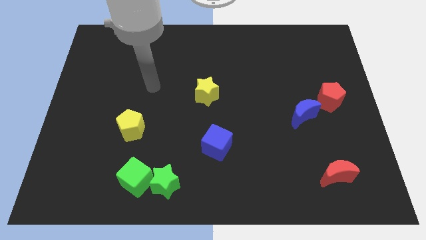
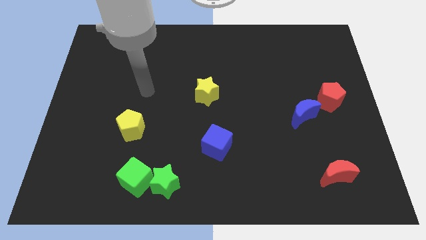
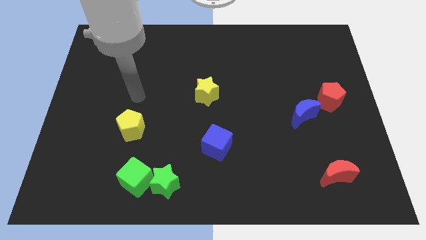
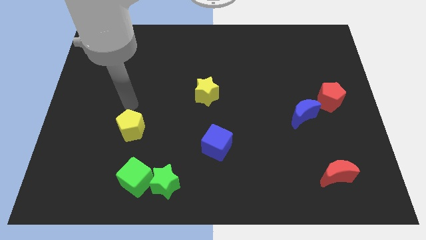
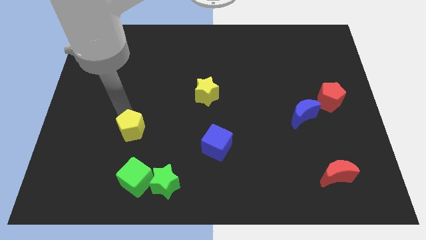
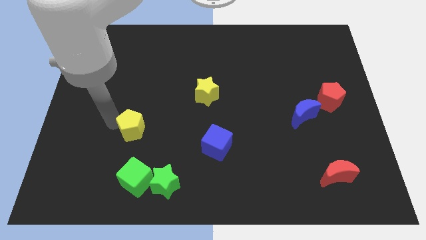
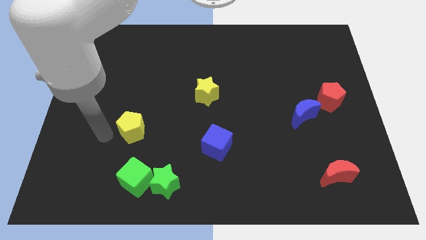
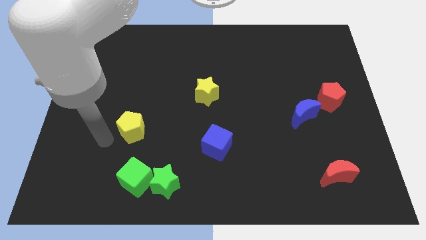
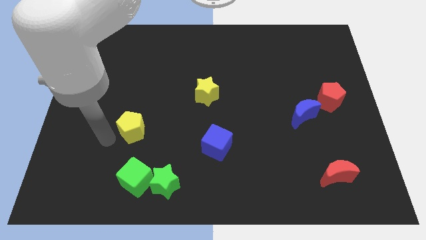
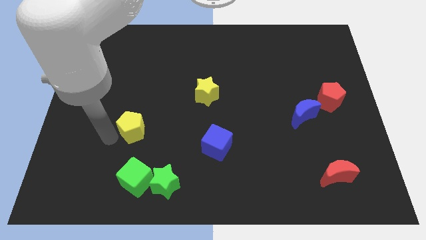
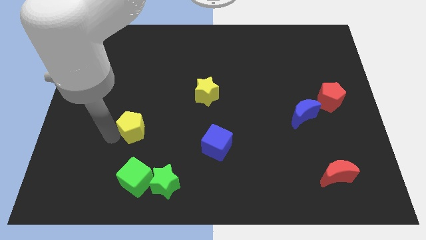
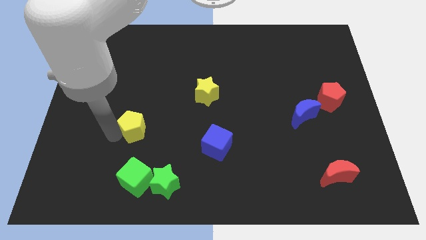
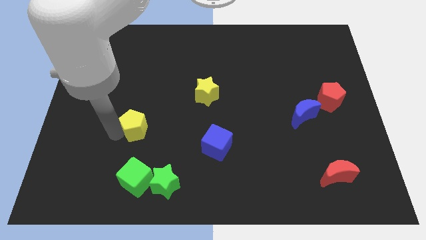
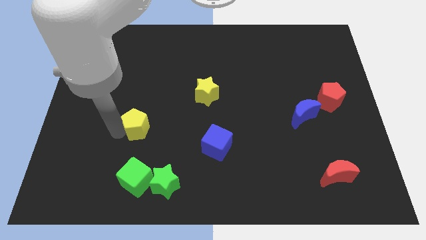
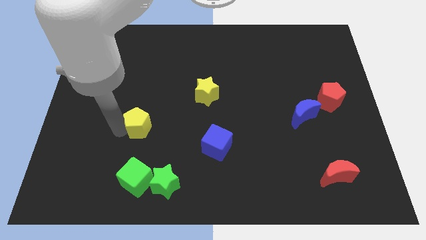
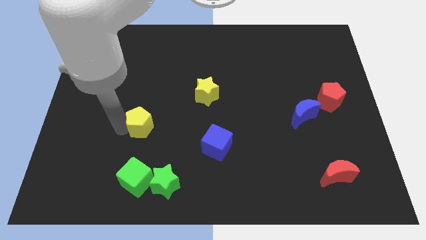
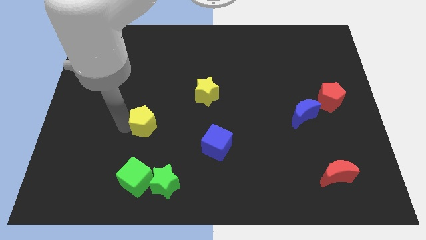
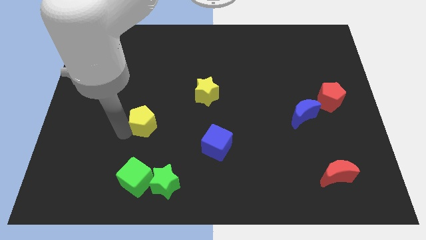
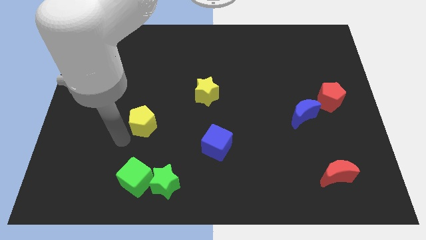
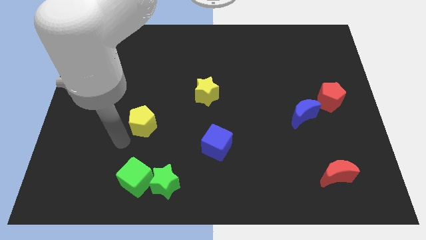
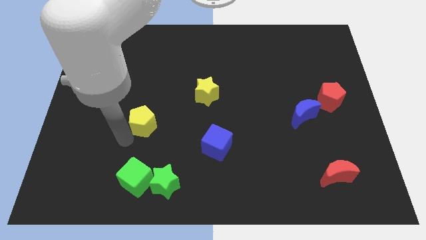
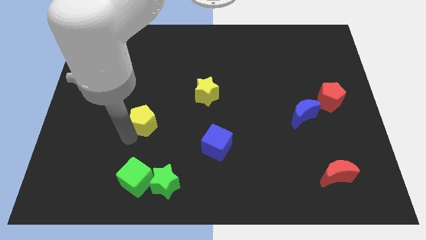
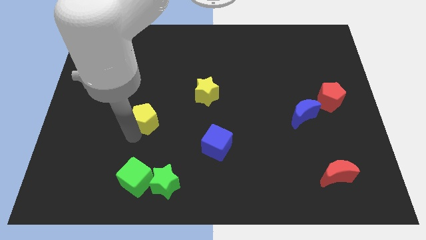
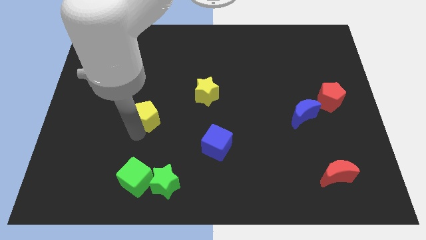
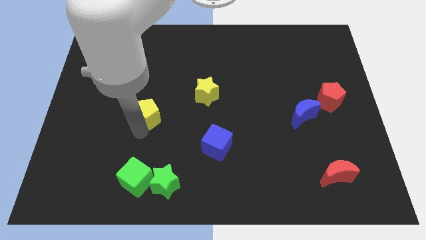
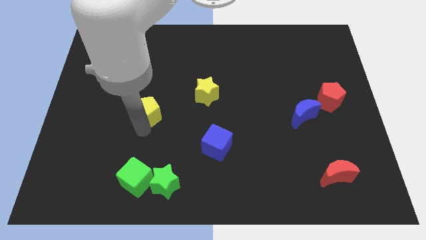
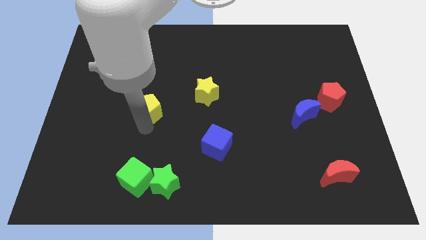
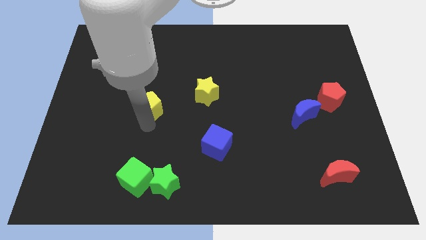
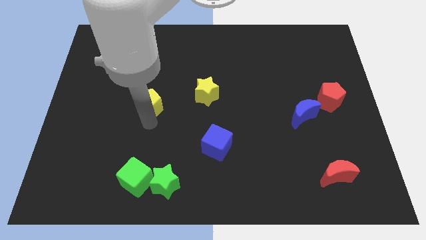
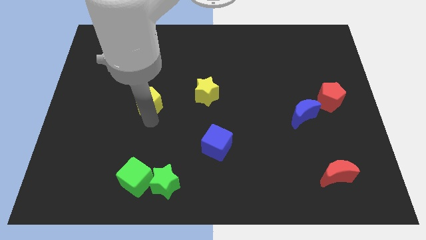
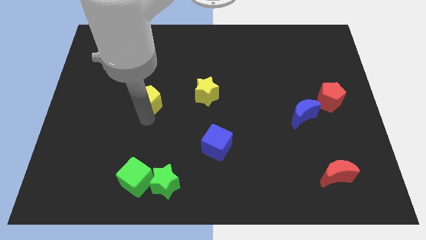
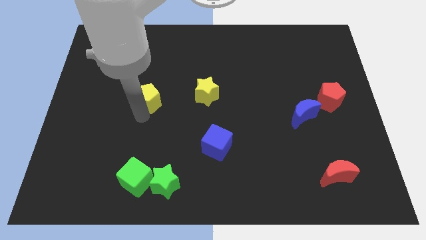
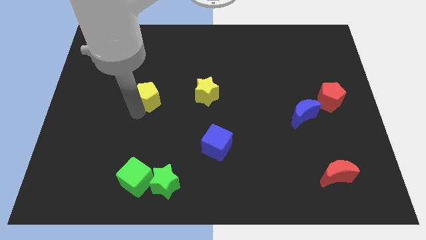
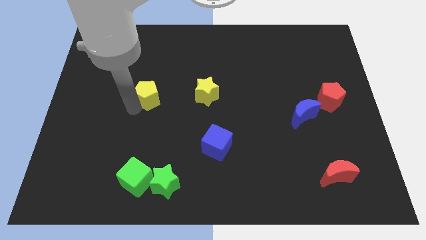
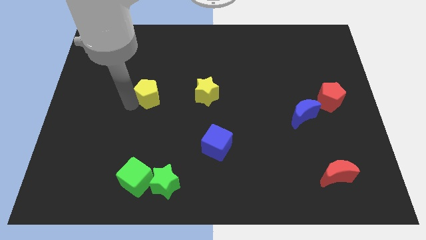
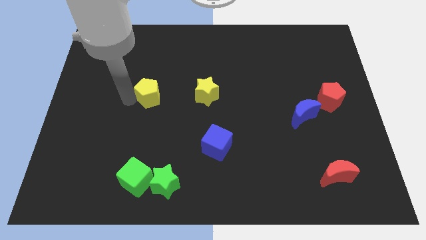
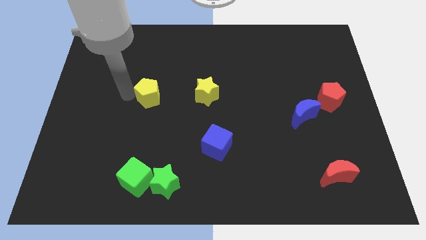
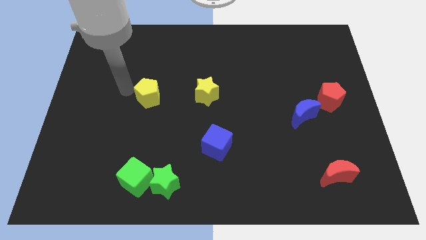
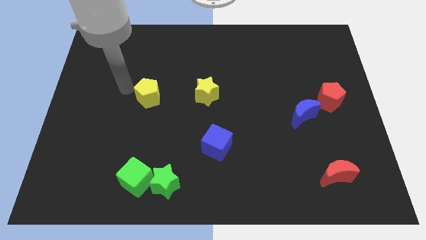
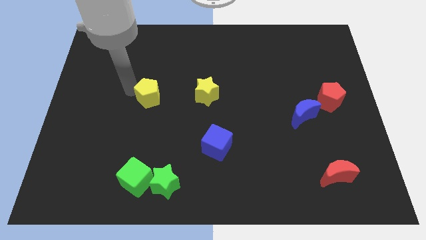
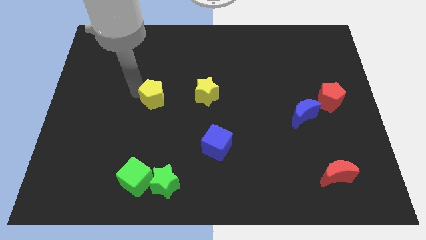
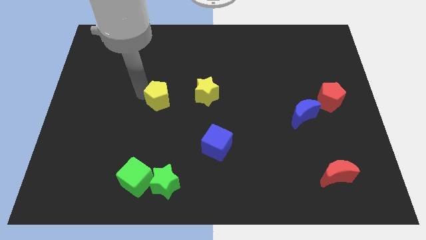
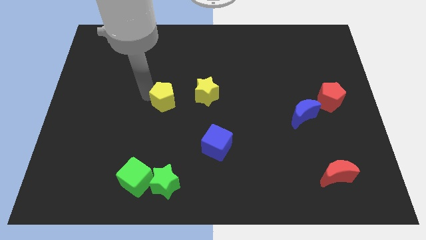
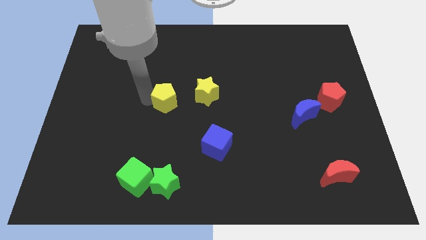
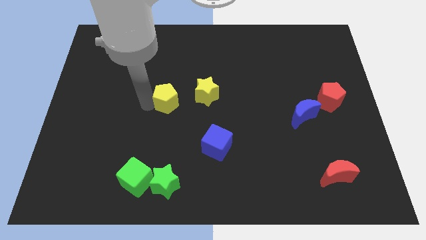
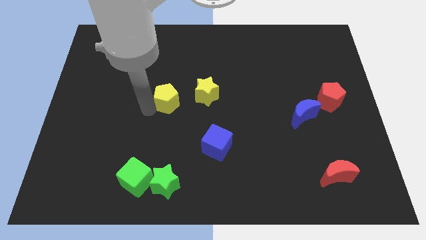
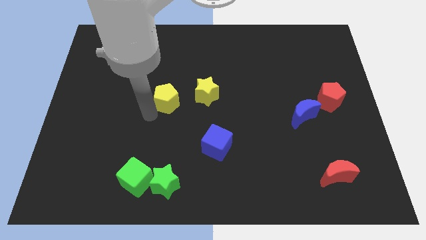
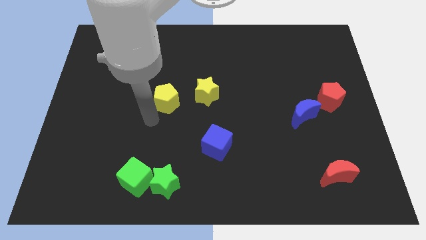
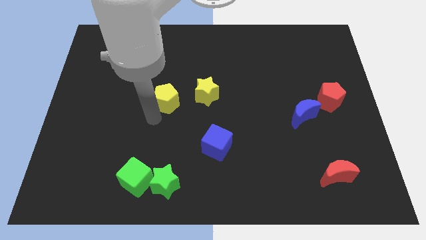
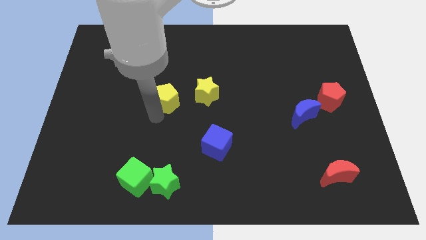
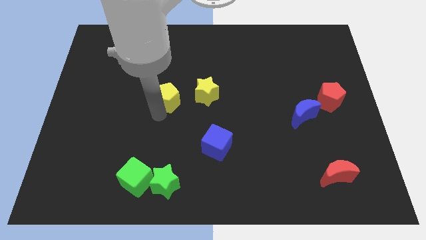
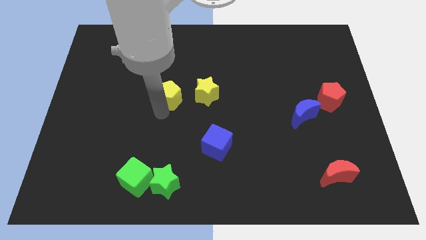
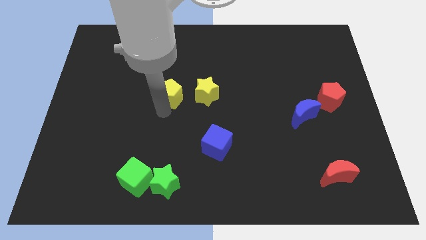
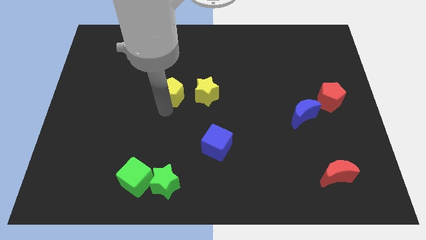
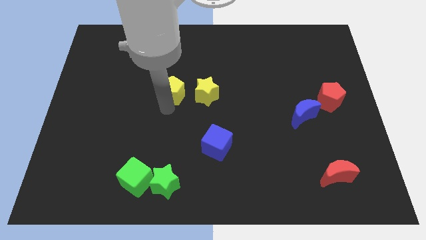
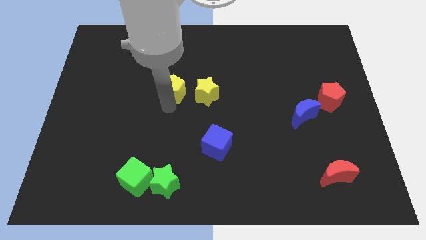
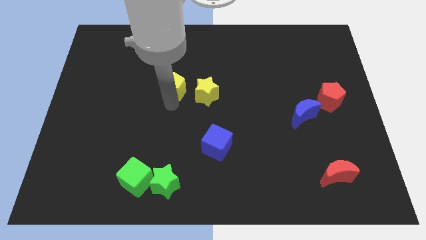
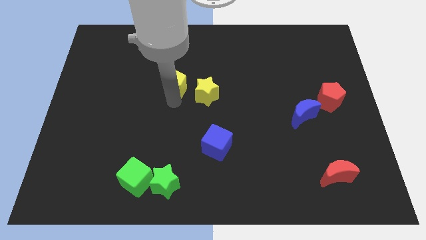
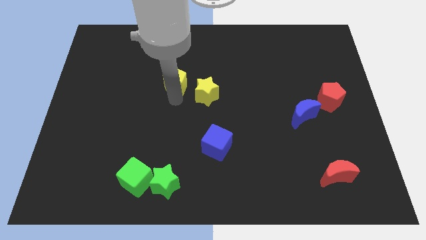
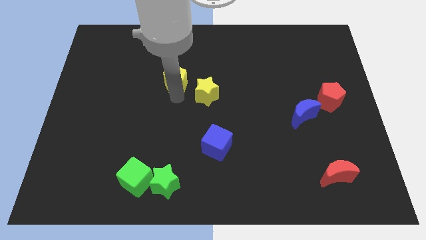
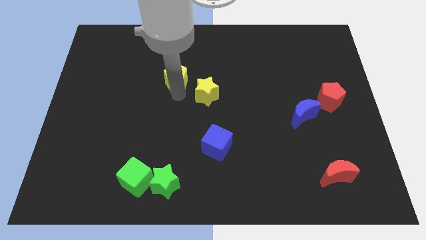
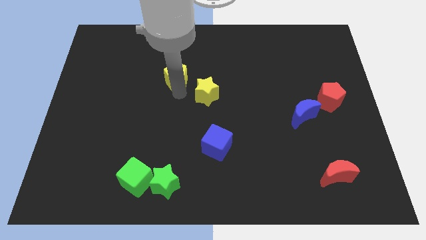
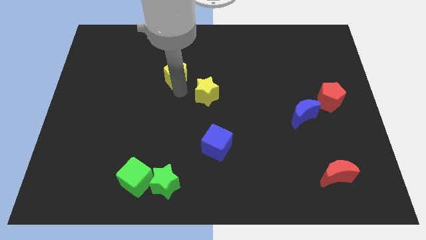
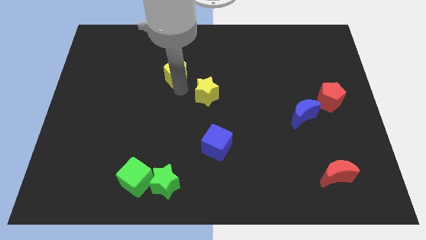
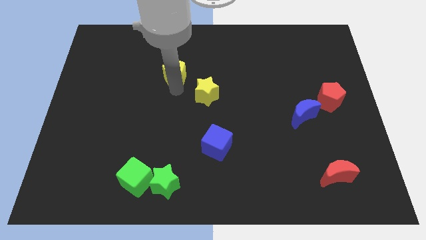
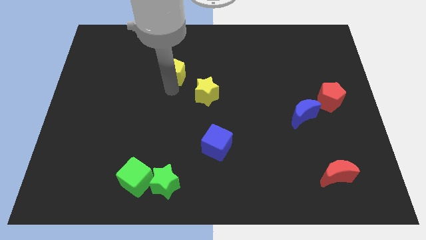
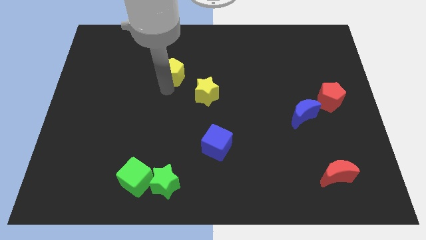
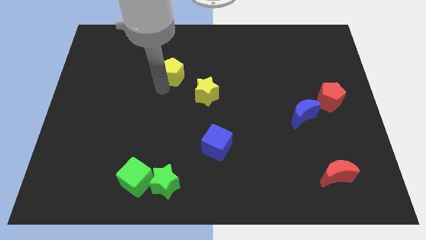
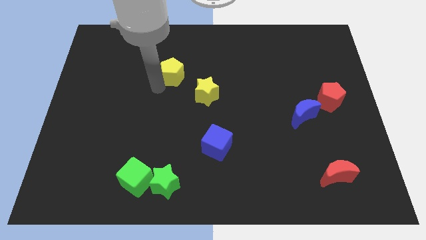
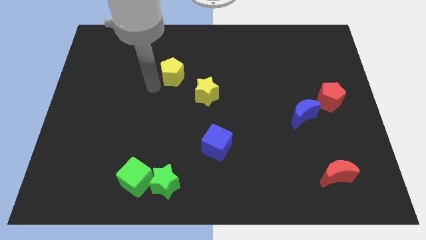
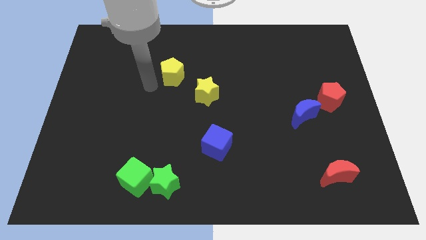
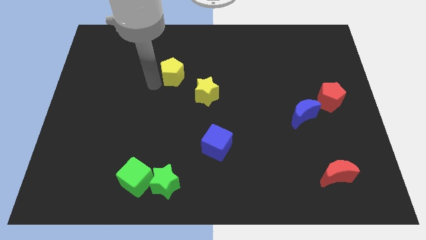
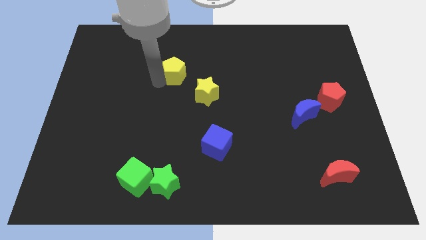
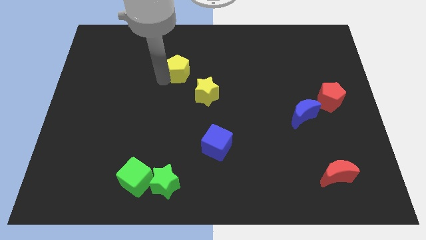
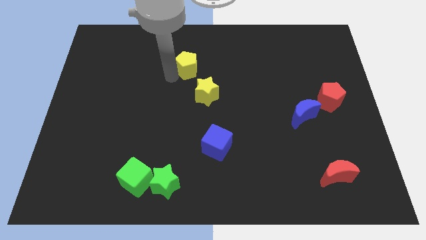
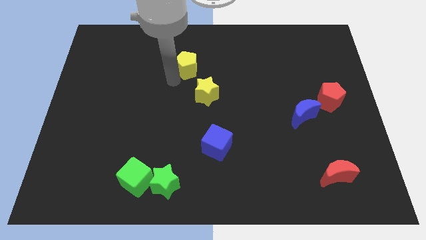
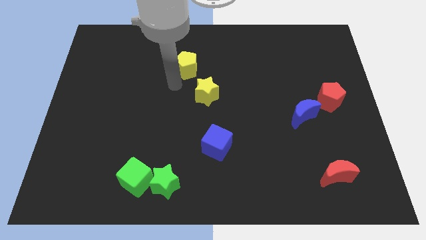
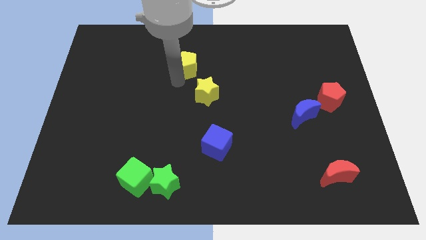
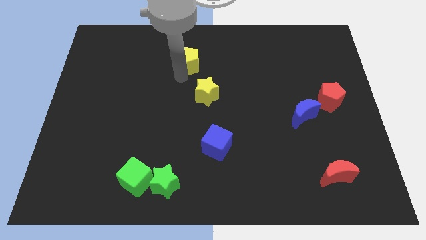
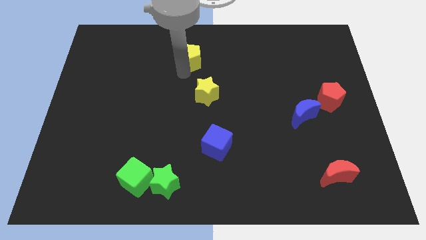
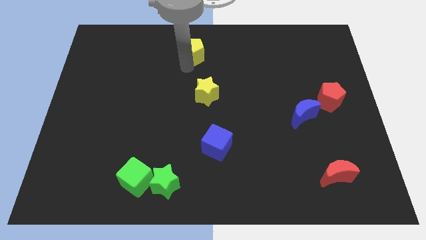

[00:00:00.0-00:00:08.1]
put the yellow pentagon to the top
